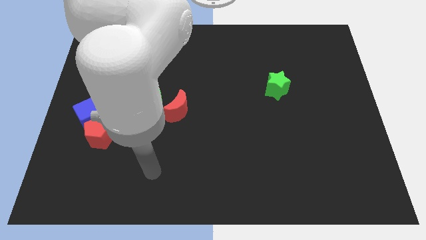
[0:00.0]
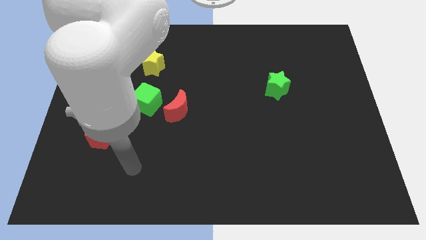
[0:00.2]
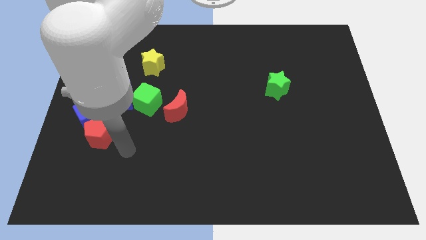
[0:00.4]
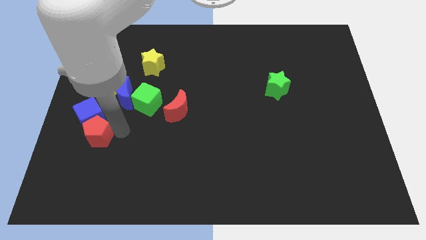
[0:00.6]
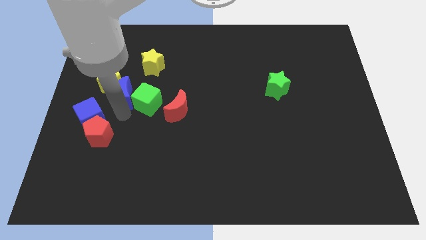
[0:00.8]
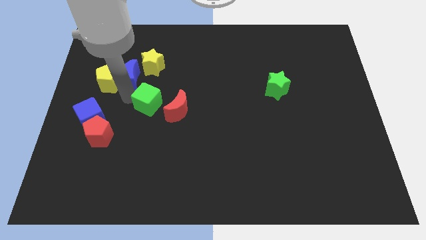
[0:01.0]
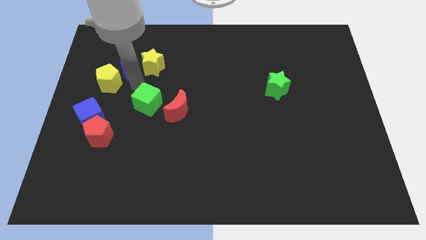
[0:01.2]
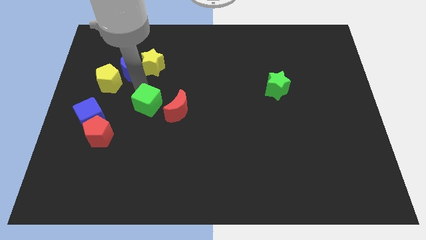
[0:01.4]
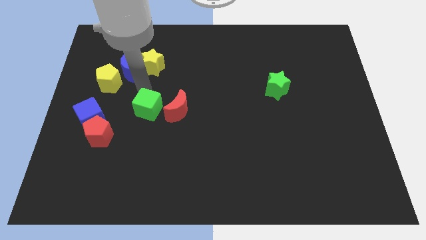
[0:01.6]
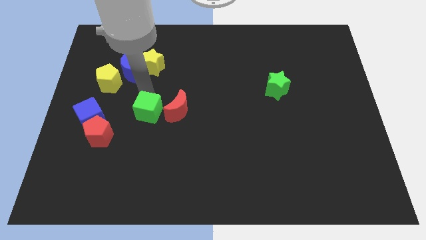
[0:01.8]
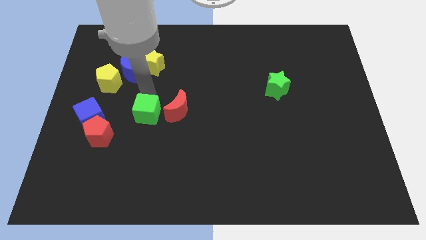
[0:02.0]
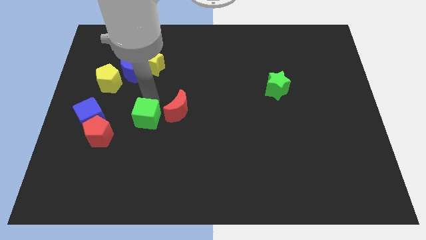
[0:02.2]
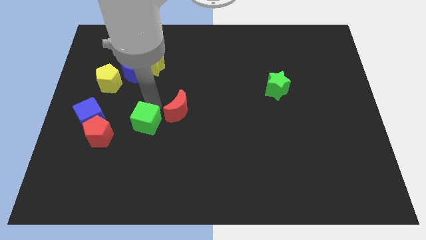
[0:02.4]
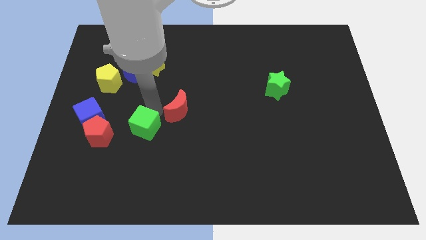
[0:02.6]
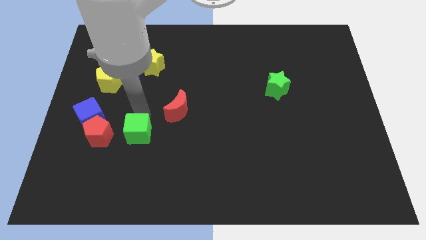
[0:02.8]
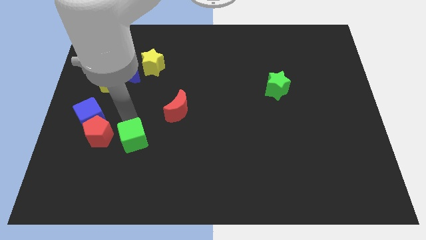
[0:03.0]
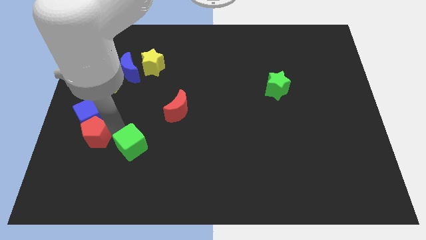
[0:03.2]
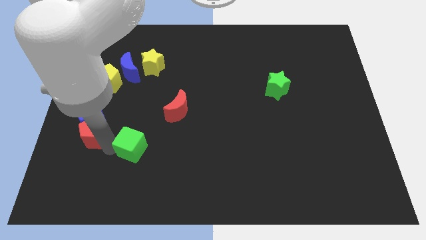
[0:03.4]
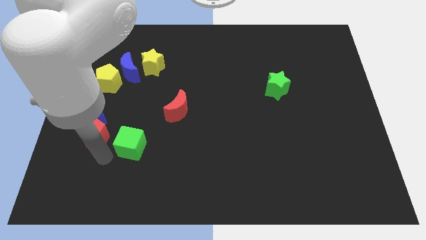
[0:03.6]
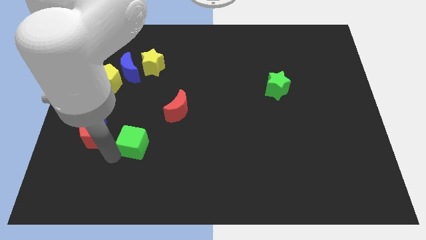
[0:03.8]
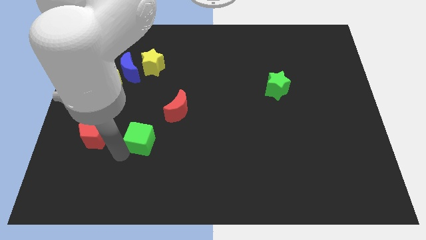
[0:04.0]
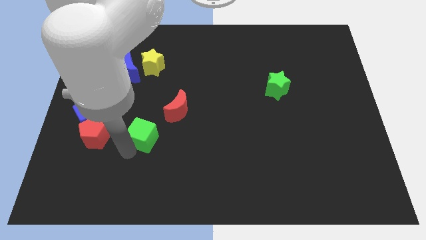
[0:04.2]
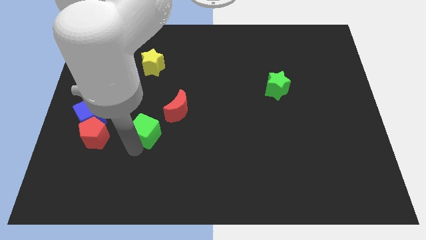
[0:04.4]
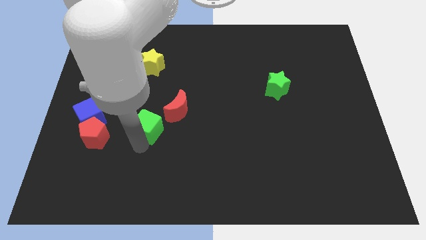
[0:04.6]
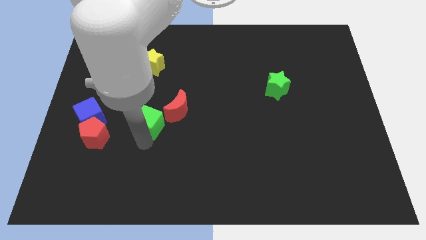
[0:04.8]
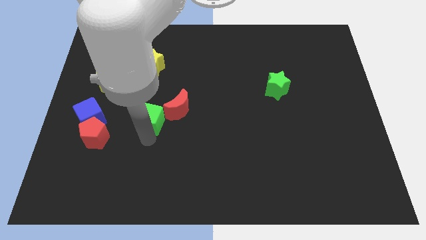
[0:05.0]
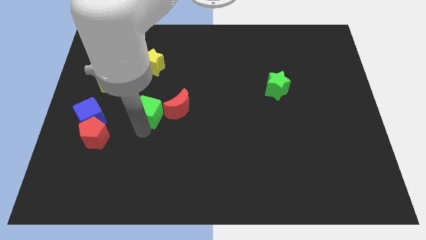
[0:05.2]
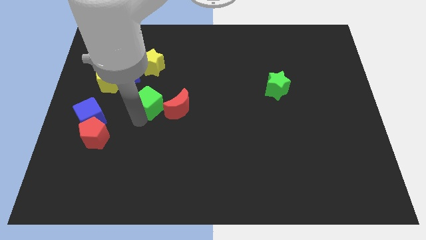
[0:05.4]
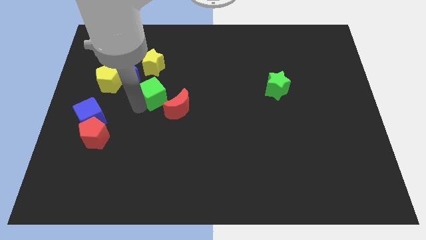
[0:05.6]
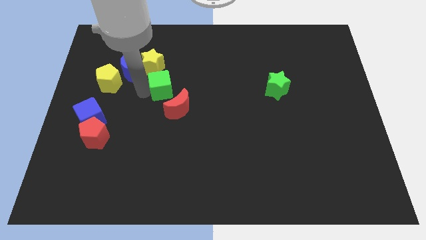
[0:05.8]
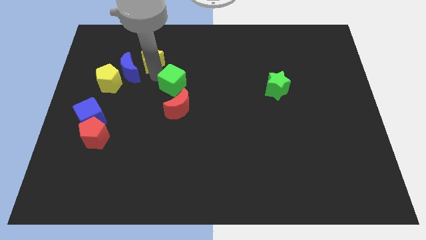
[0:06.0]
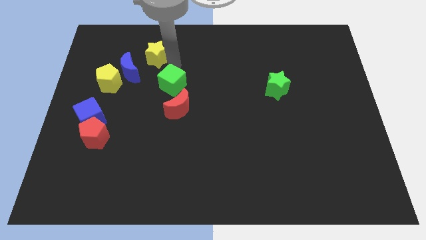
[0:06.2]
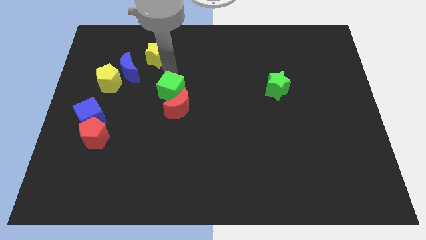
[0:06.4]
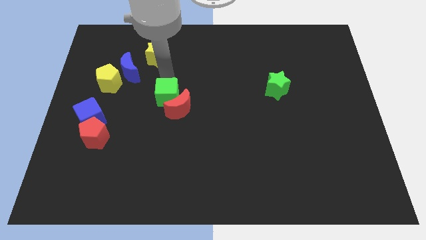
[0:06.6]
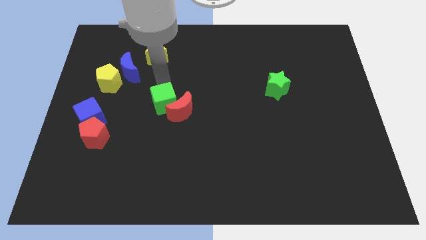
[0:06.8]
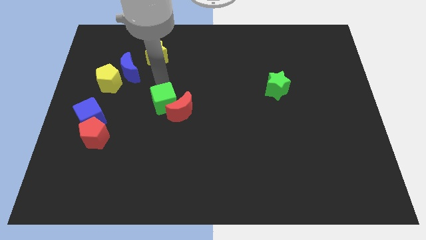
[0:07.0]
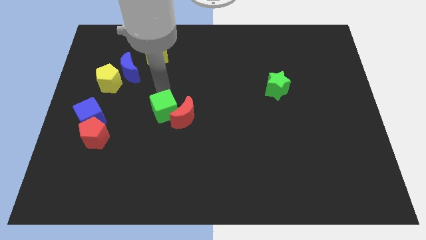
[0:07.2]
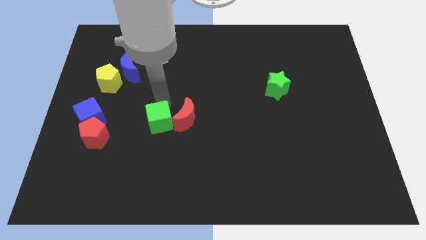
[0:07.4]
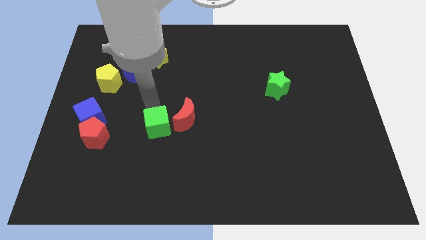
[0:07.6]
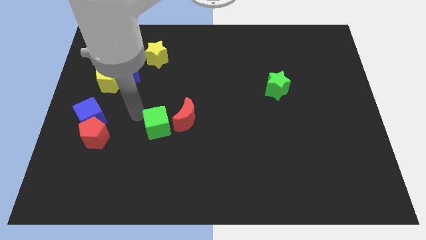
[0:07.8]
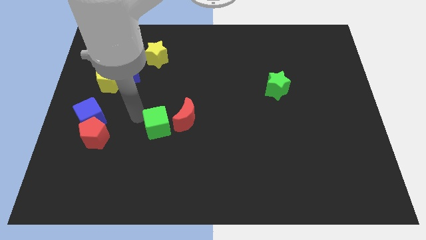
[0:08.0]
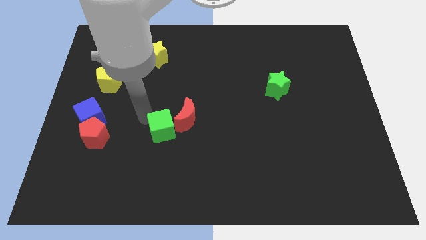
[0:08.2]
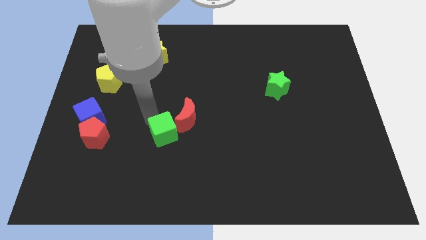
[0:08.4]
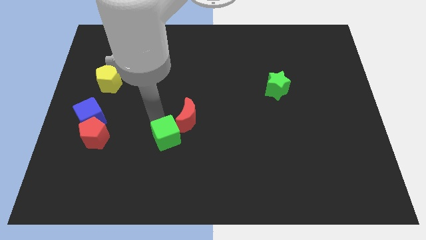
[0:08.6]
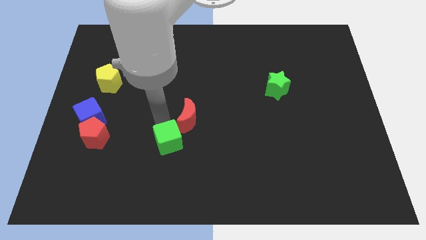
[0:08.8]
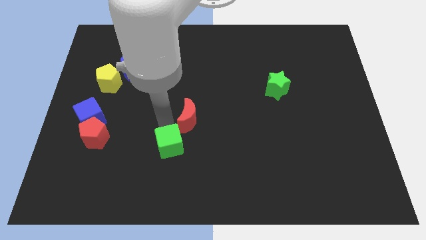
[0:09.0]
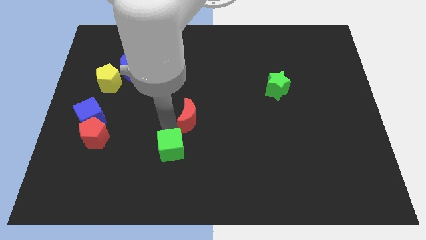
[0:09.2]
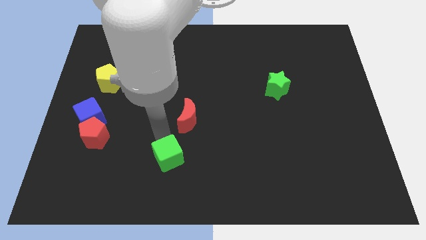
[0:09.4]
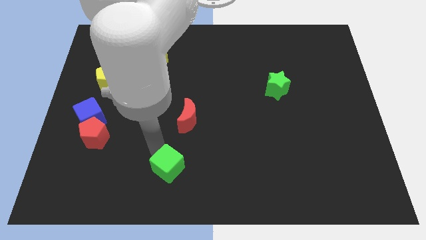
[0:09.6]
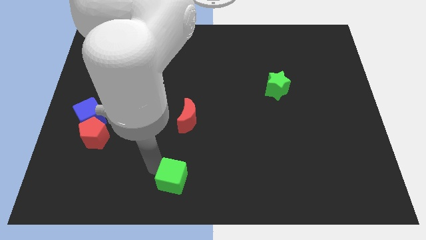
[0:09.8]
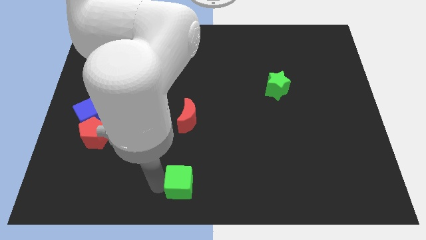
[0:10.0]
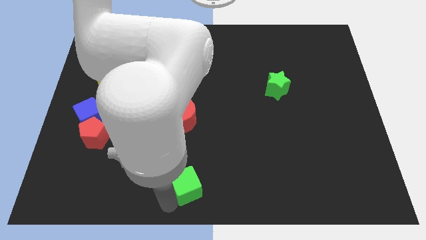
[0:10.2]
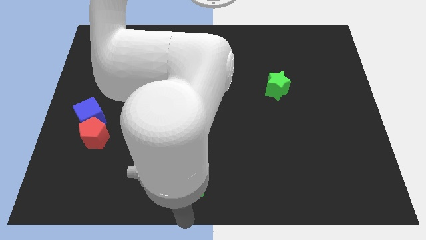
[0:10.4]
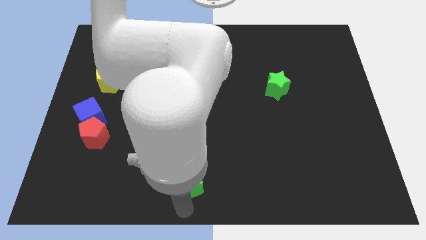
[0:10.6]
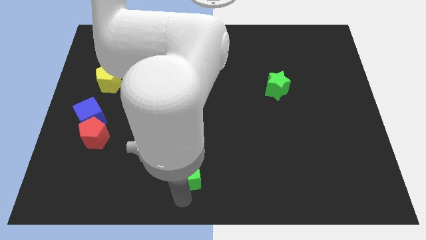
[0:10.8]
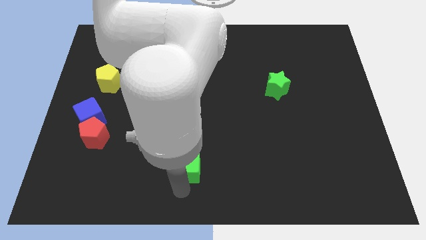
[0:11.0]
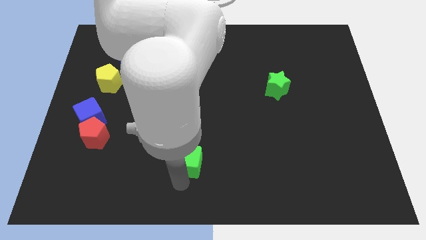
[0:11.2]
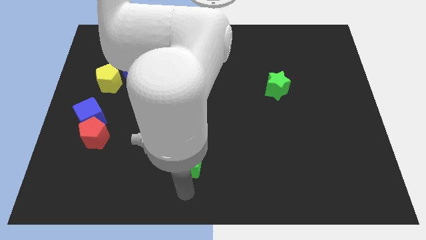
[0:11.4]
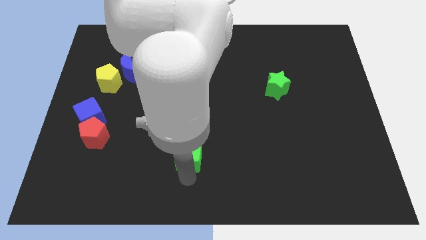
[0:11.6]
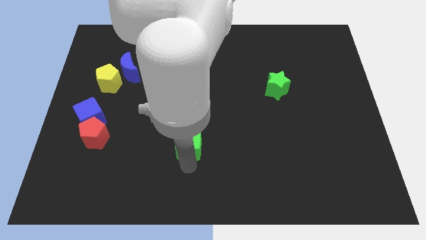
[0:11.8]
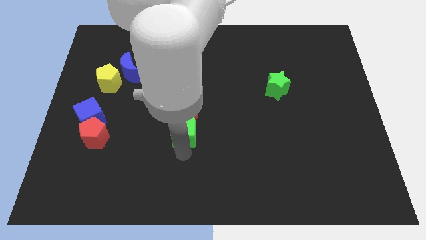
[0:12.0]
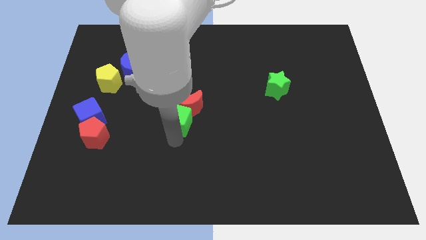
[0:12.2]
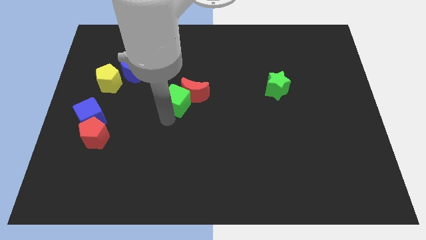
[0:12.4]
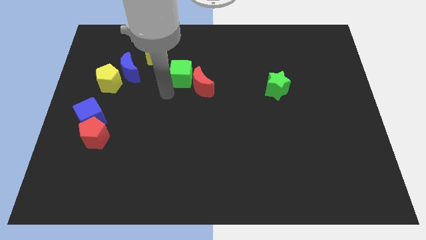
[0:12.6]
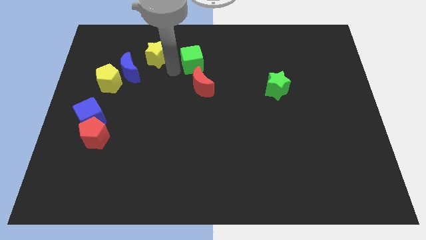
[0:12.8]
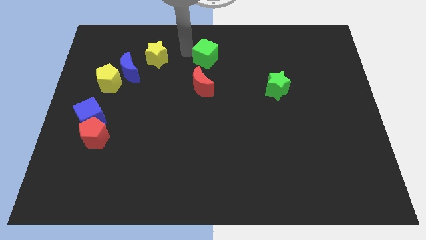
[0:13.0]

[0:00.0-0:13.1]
put the green cube to the towards your base
